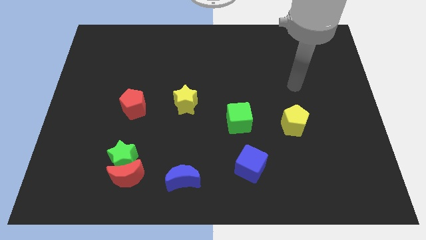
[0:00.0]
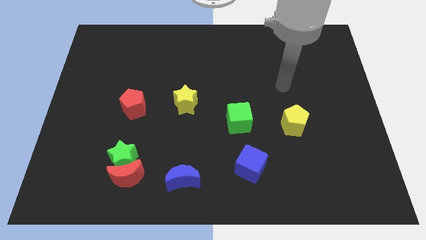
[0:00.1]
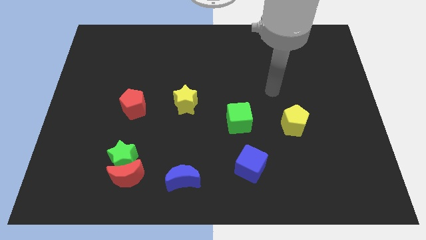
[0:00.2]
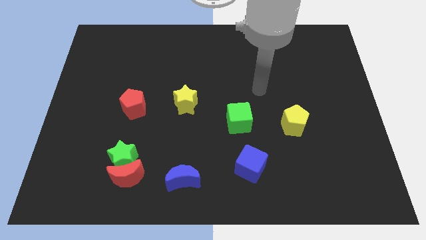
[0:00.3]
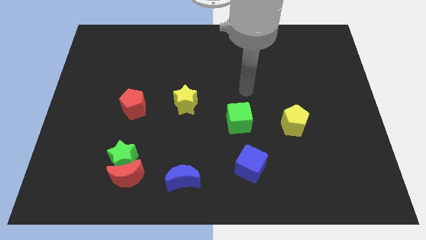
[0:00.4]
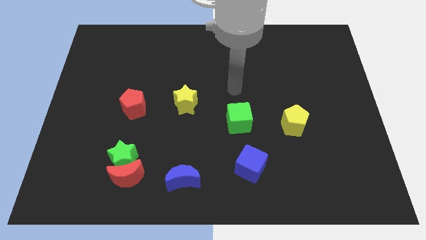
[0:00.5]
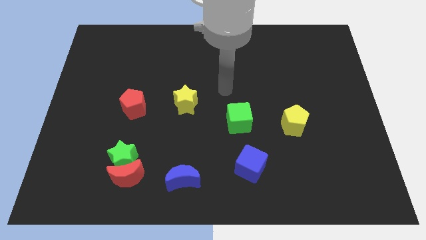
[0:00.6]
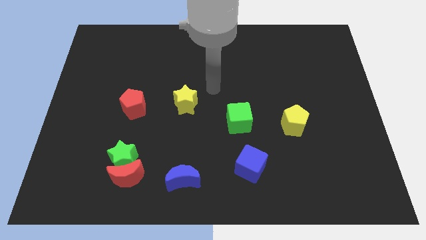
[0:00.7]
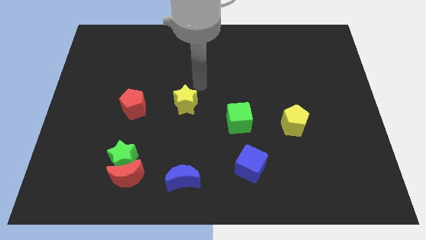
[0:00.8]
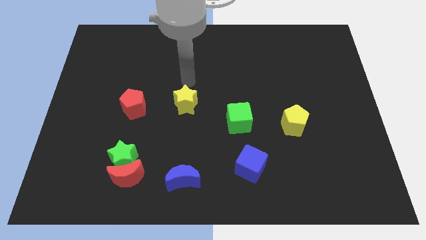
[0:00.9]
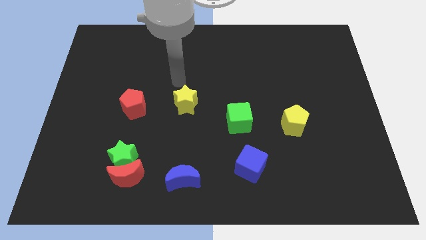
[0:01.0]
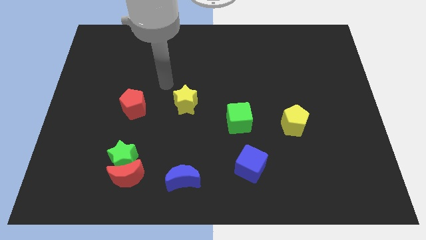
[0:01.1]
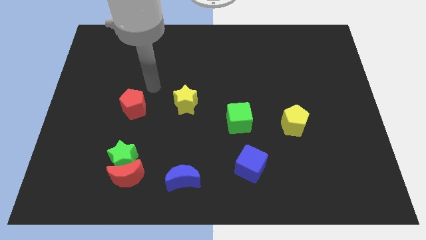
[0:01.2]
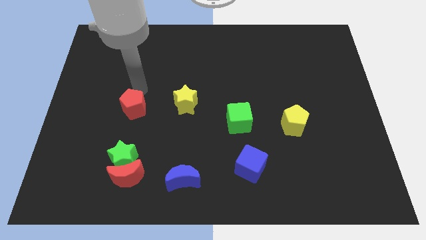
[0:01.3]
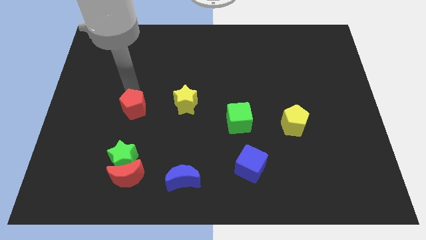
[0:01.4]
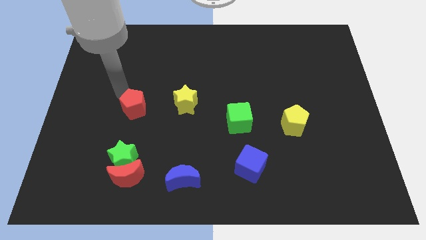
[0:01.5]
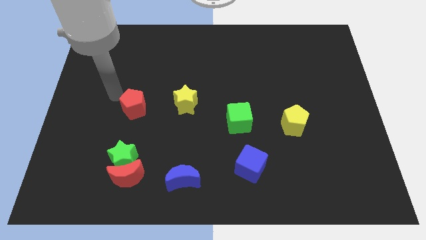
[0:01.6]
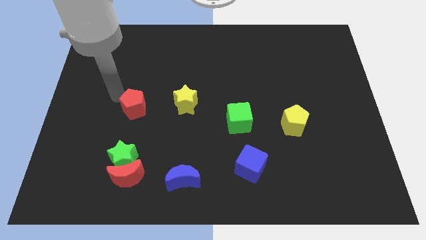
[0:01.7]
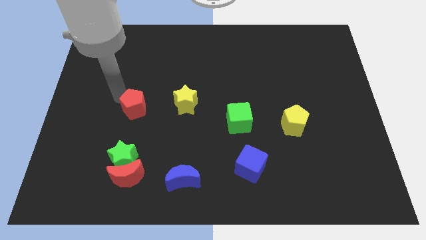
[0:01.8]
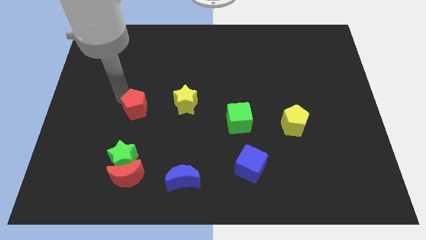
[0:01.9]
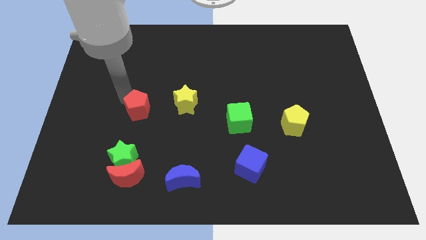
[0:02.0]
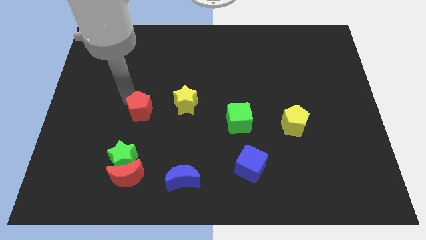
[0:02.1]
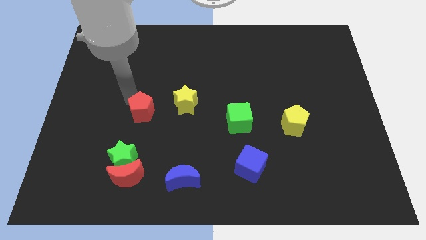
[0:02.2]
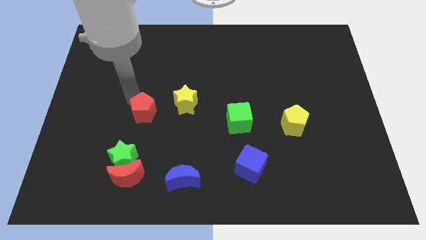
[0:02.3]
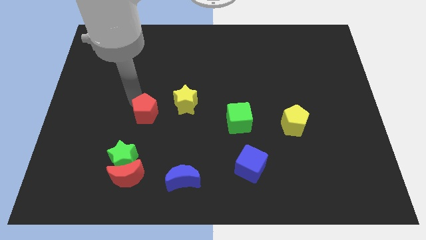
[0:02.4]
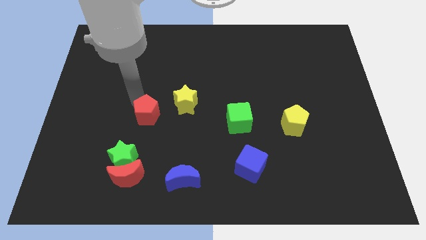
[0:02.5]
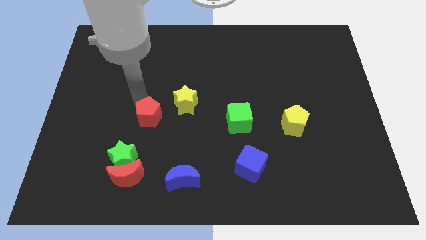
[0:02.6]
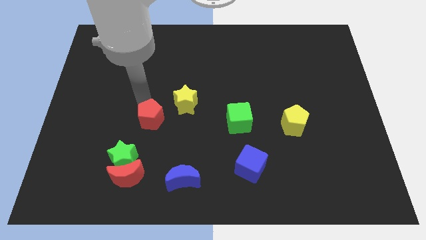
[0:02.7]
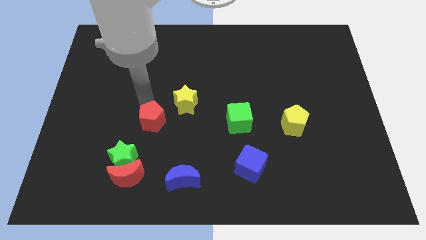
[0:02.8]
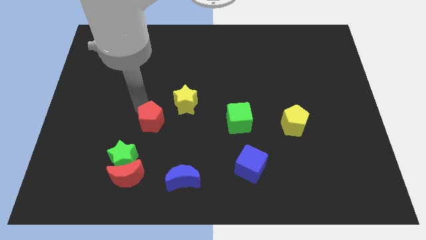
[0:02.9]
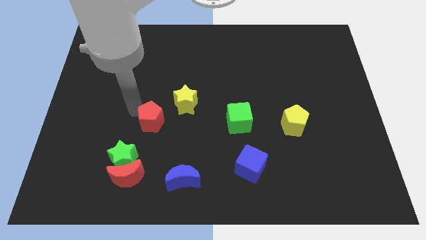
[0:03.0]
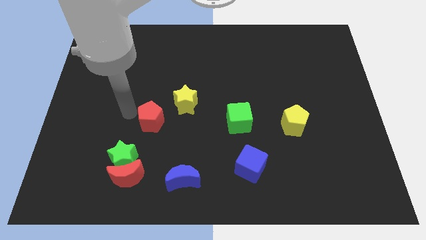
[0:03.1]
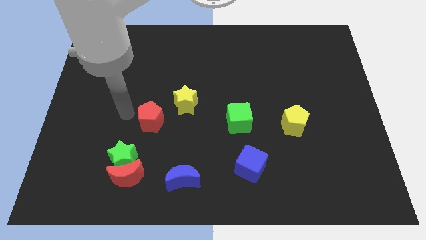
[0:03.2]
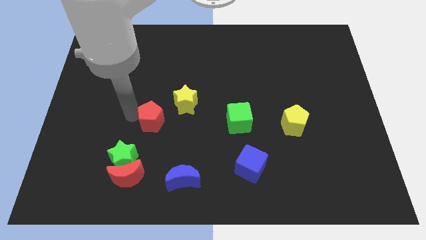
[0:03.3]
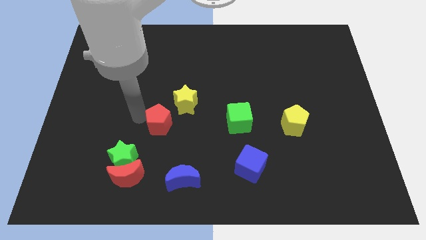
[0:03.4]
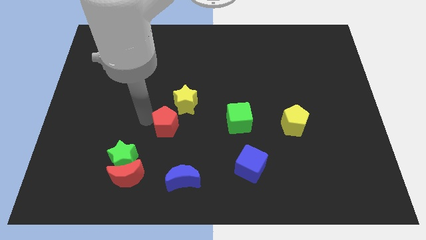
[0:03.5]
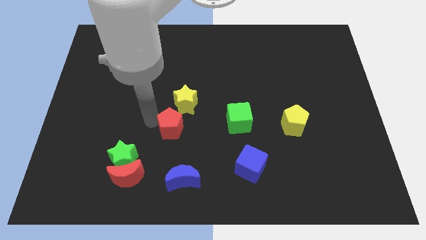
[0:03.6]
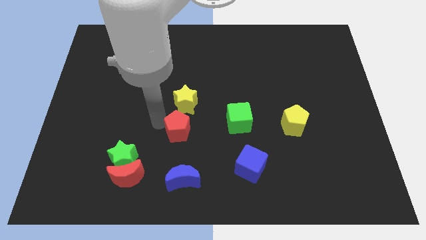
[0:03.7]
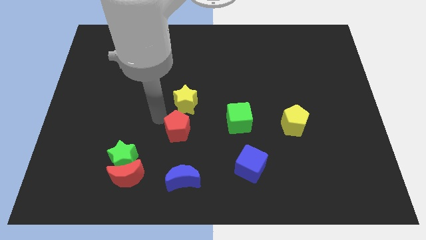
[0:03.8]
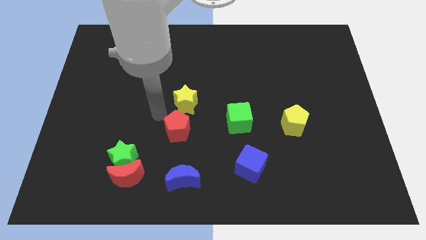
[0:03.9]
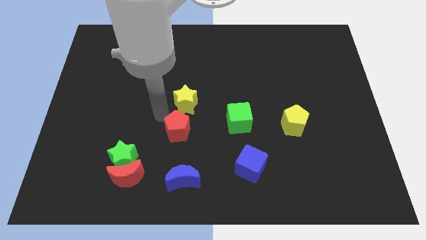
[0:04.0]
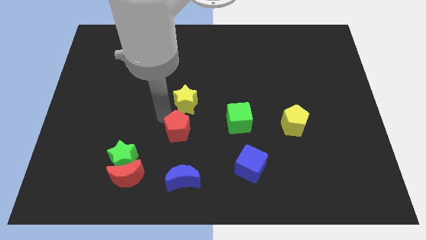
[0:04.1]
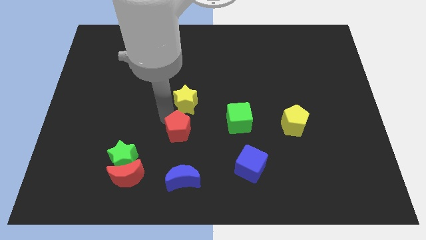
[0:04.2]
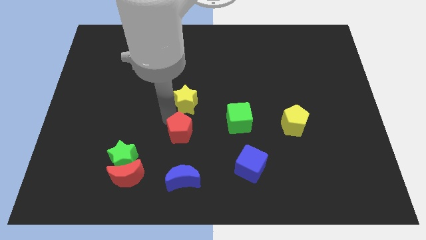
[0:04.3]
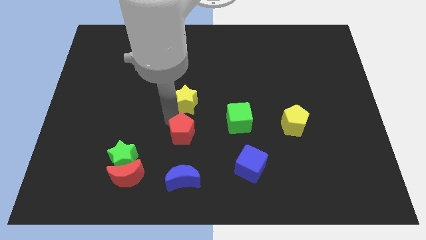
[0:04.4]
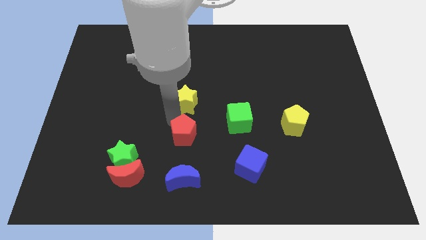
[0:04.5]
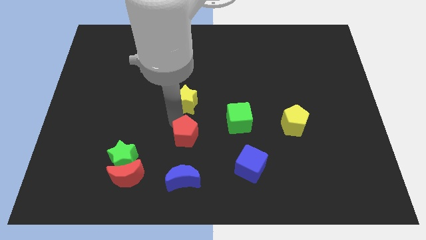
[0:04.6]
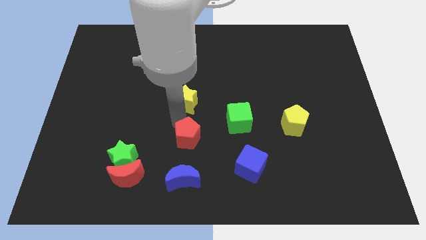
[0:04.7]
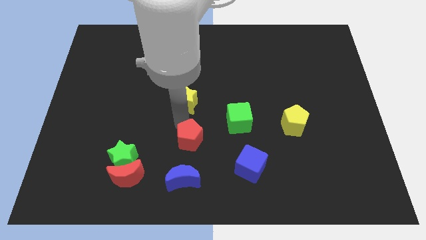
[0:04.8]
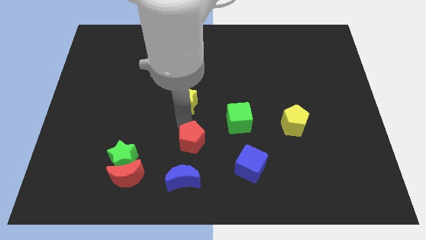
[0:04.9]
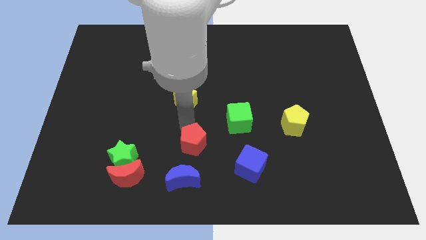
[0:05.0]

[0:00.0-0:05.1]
move the red pentagon to the top right of the blue moon

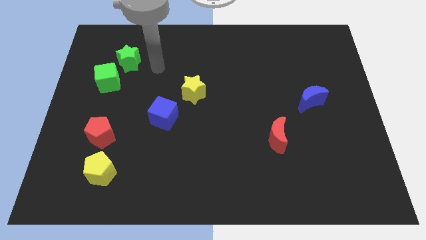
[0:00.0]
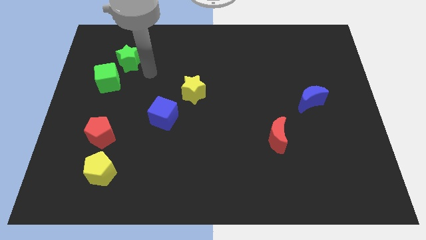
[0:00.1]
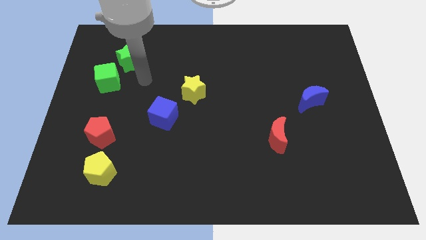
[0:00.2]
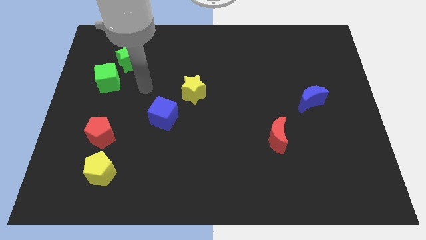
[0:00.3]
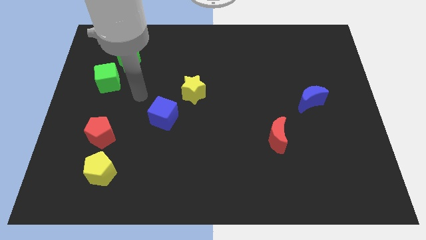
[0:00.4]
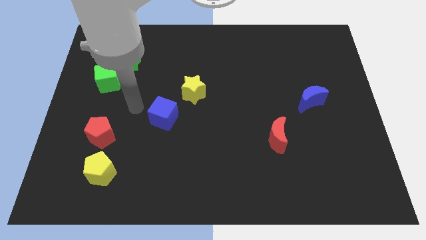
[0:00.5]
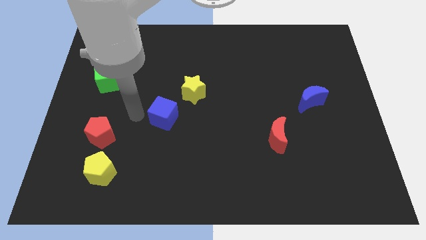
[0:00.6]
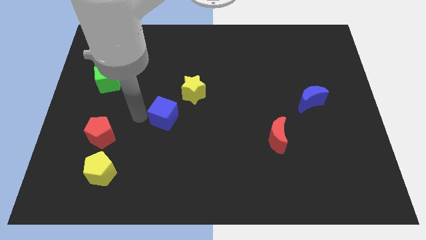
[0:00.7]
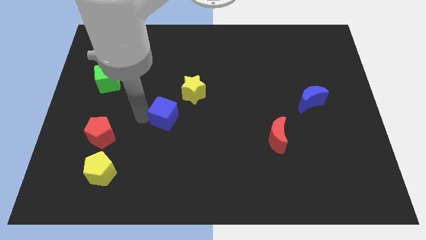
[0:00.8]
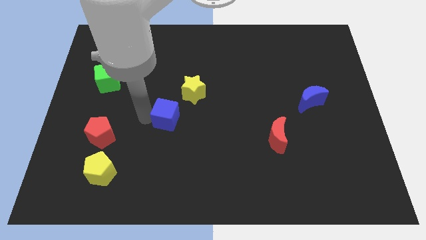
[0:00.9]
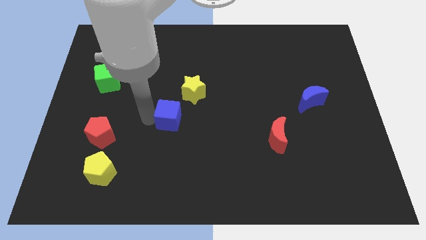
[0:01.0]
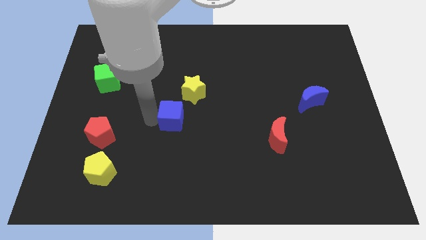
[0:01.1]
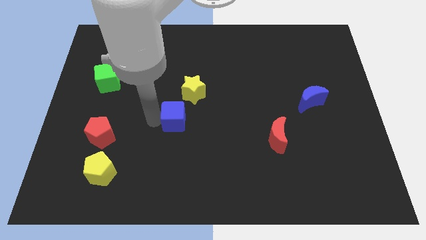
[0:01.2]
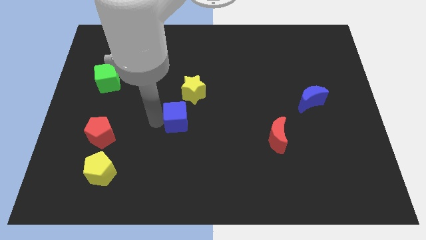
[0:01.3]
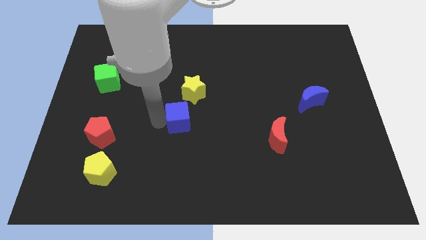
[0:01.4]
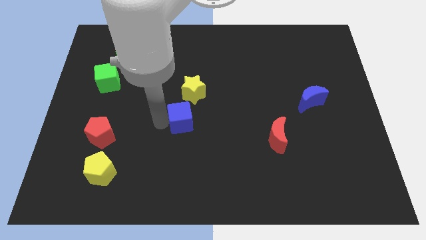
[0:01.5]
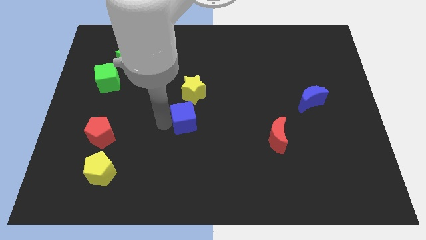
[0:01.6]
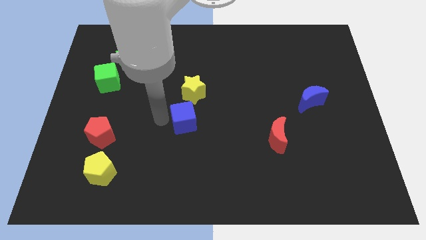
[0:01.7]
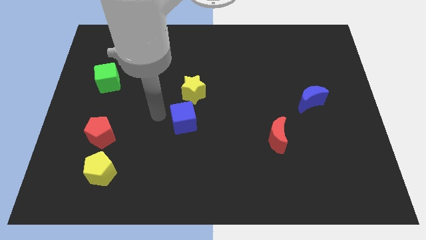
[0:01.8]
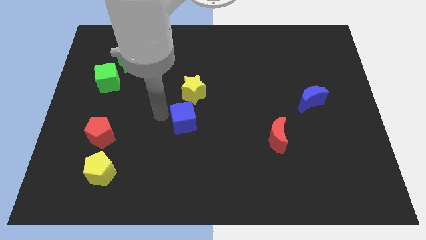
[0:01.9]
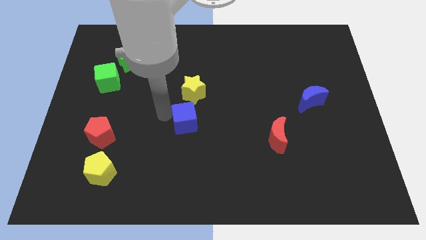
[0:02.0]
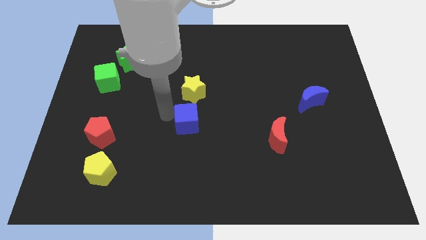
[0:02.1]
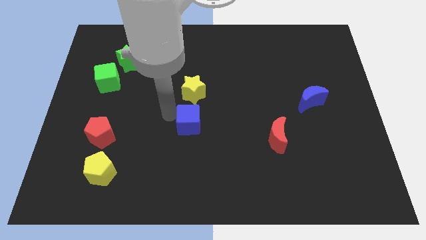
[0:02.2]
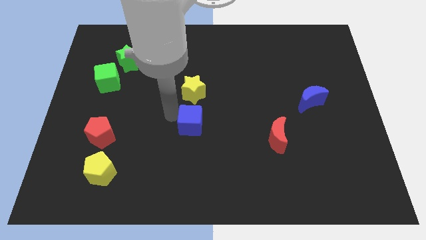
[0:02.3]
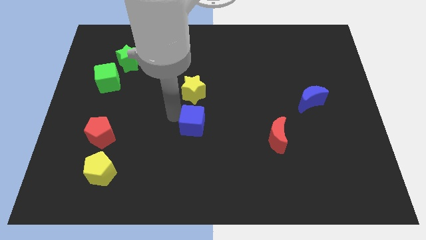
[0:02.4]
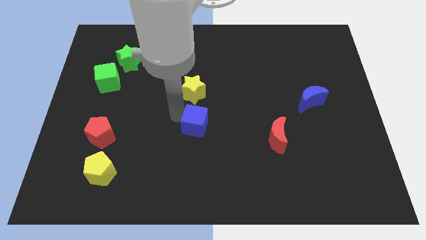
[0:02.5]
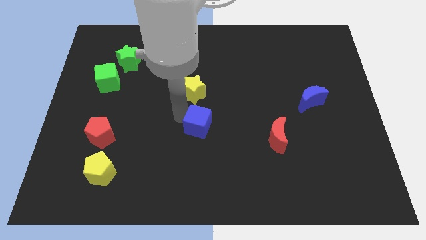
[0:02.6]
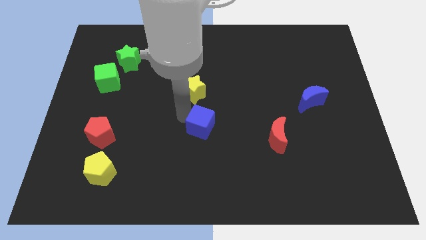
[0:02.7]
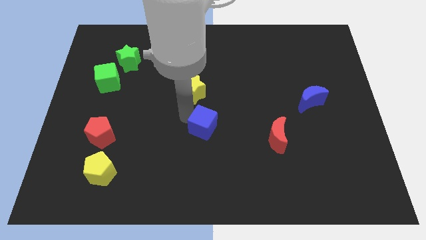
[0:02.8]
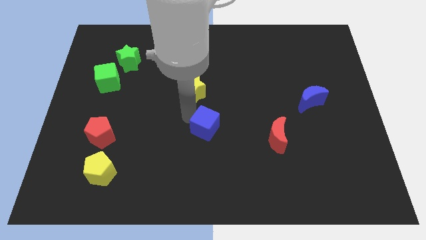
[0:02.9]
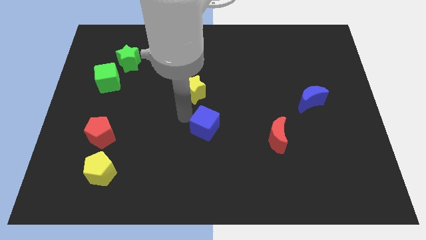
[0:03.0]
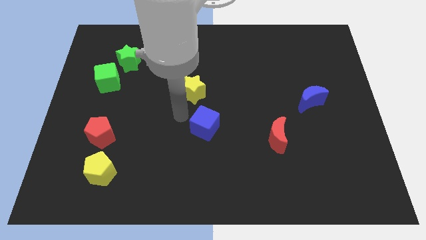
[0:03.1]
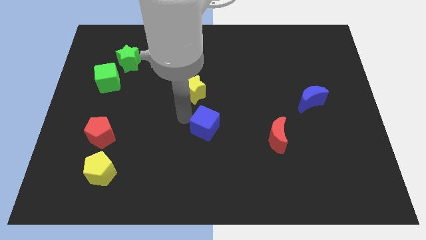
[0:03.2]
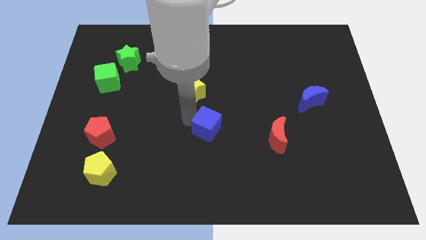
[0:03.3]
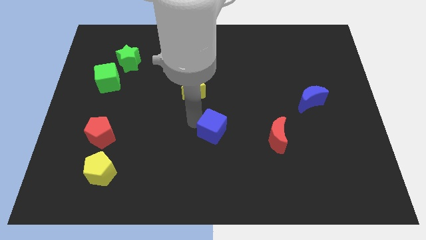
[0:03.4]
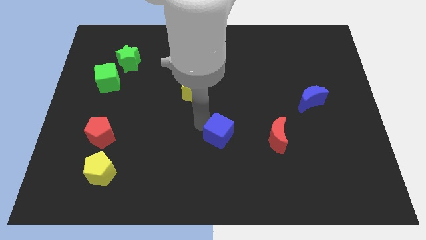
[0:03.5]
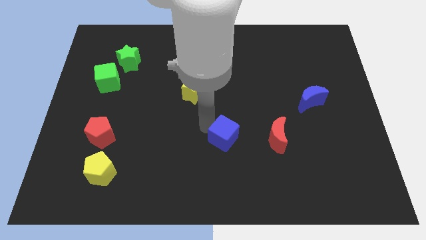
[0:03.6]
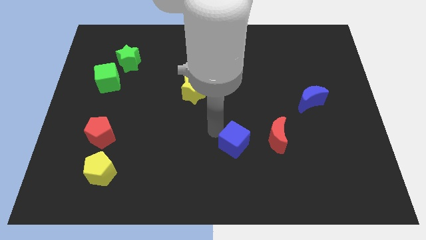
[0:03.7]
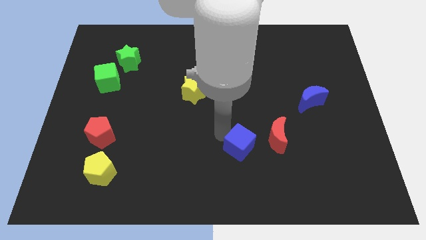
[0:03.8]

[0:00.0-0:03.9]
put the blue cube to the bottom left side of the red moon
